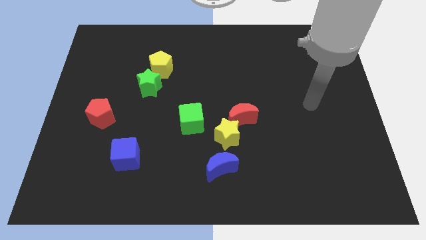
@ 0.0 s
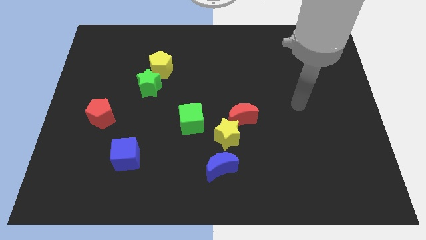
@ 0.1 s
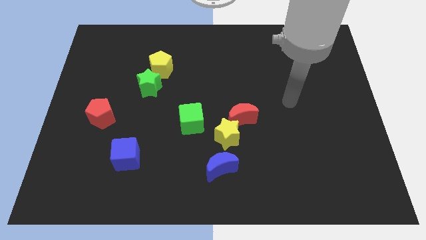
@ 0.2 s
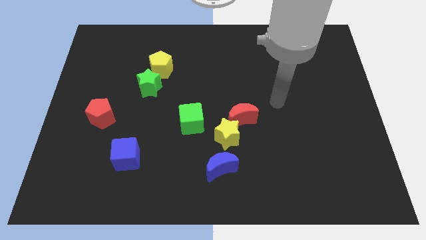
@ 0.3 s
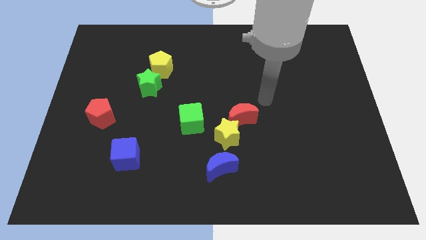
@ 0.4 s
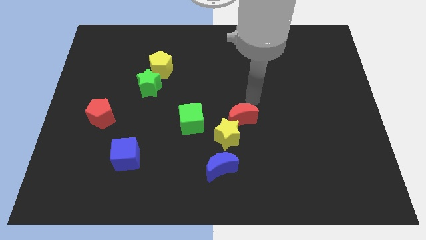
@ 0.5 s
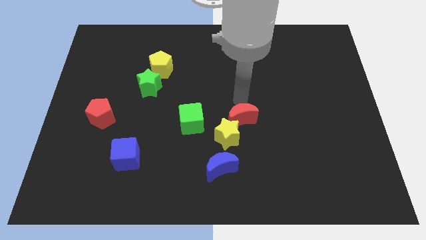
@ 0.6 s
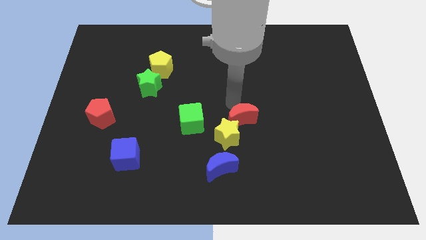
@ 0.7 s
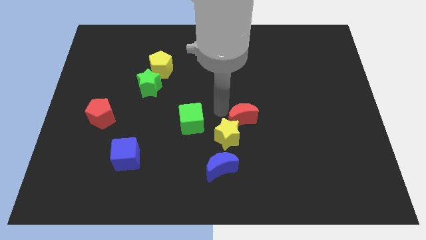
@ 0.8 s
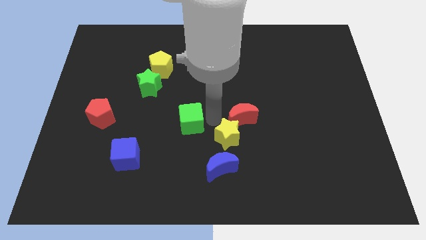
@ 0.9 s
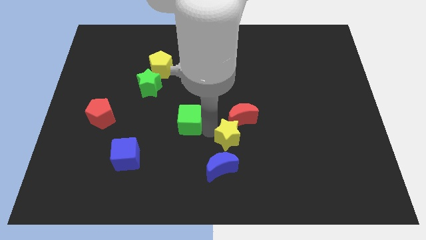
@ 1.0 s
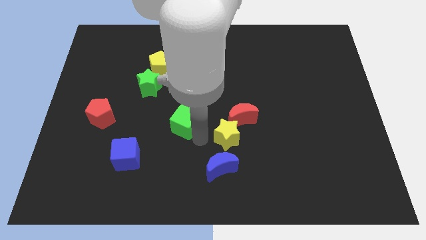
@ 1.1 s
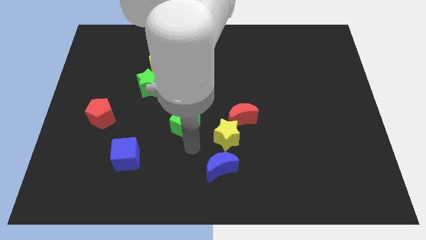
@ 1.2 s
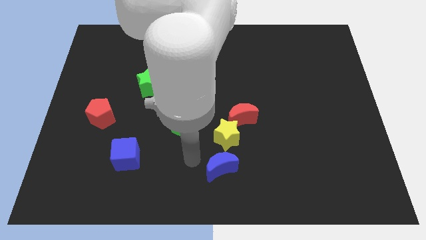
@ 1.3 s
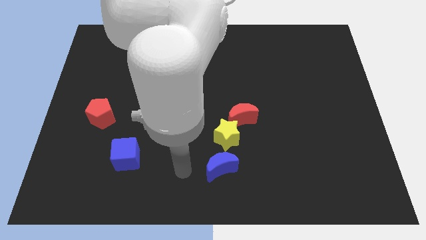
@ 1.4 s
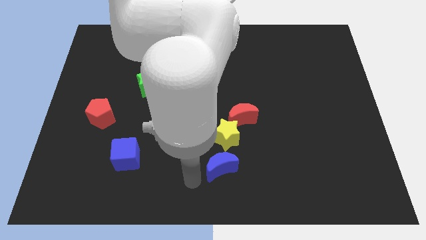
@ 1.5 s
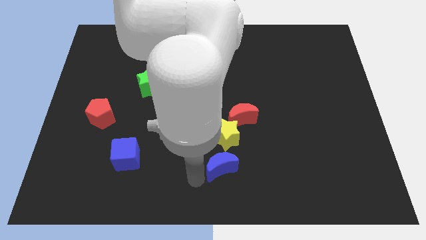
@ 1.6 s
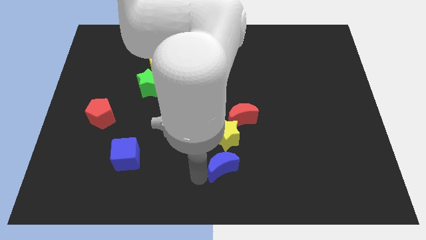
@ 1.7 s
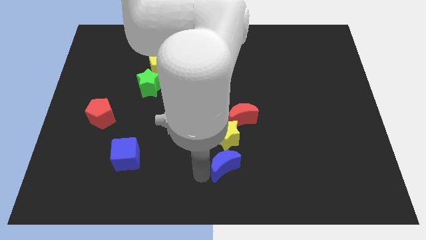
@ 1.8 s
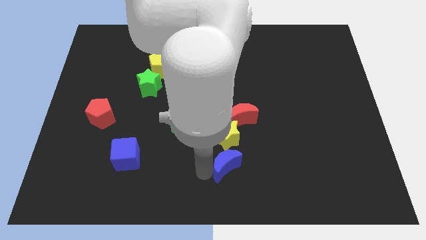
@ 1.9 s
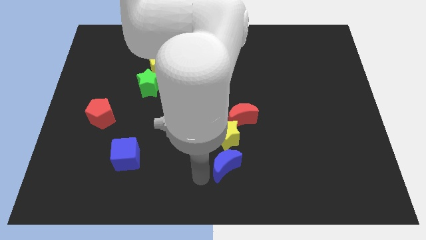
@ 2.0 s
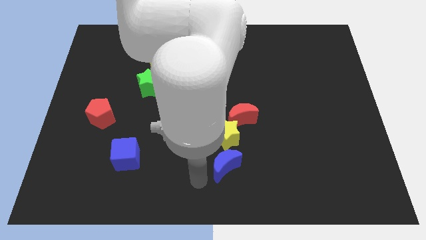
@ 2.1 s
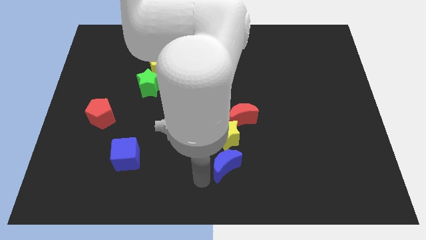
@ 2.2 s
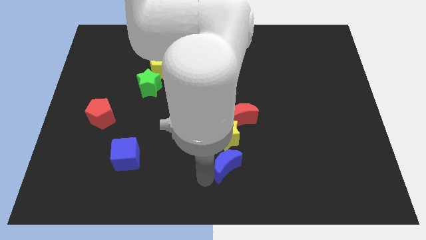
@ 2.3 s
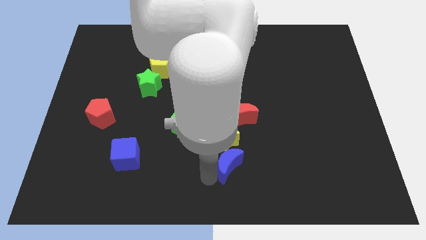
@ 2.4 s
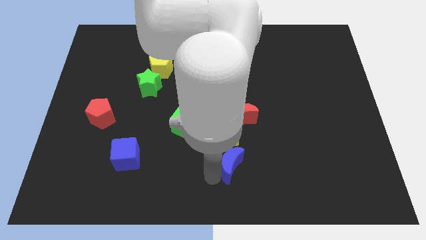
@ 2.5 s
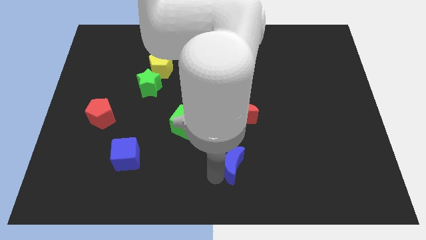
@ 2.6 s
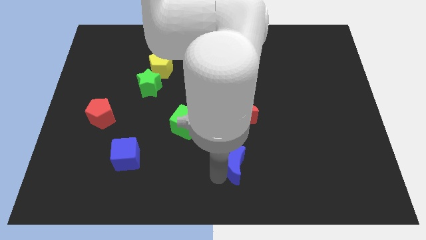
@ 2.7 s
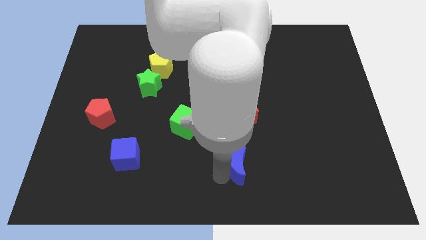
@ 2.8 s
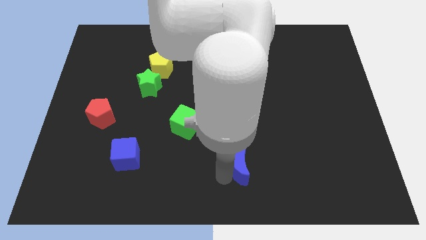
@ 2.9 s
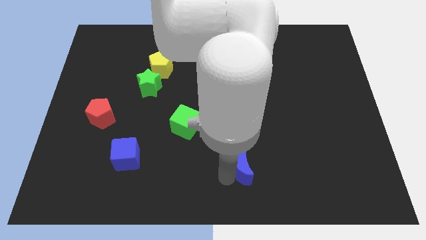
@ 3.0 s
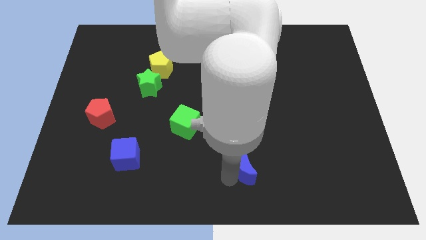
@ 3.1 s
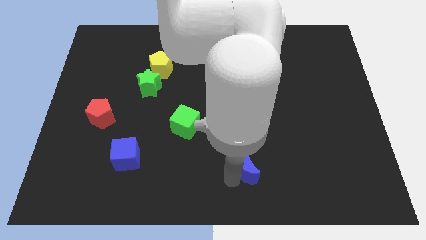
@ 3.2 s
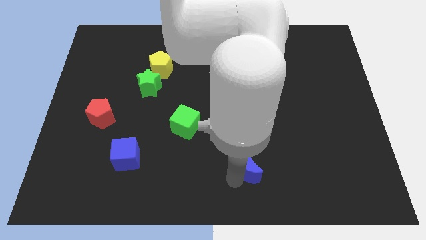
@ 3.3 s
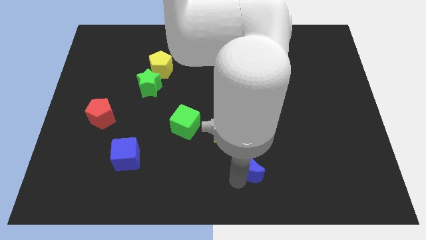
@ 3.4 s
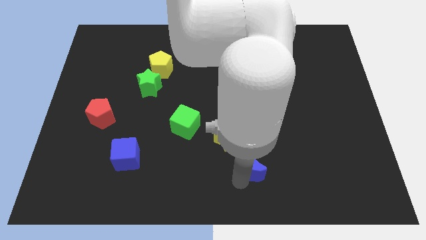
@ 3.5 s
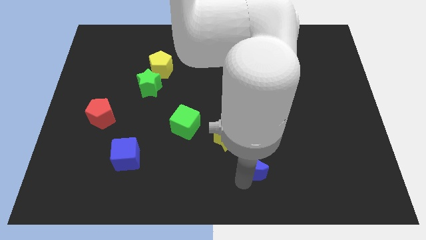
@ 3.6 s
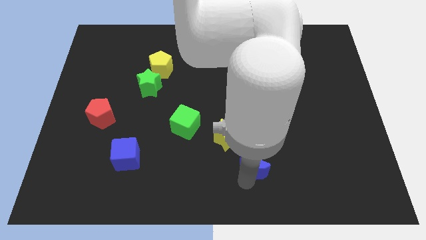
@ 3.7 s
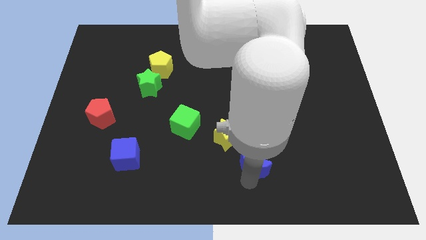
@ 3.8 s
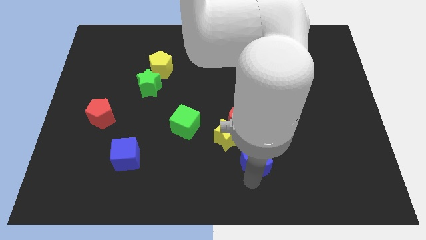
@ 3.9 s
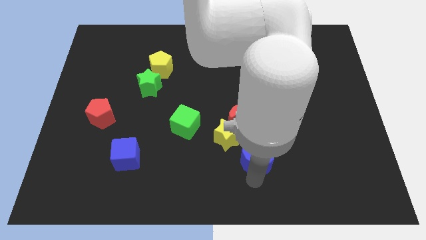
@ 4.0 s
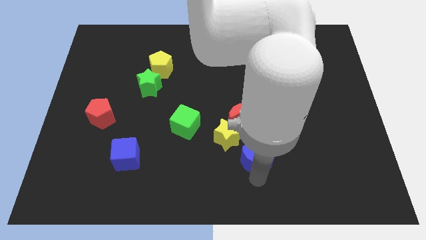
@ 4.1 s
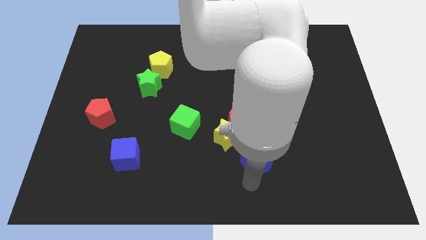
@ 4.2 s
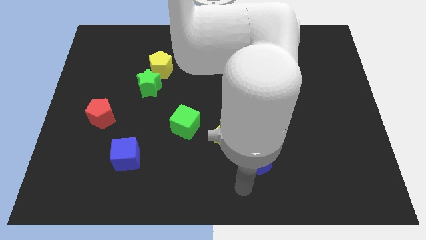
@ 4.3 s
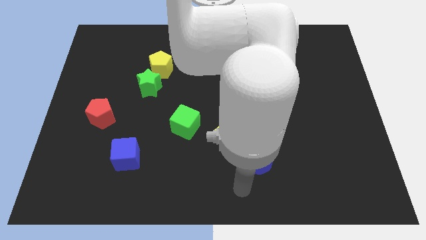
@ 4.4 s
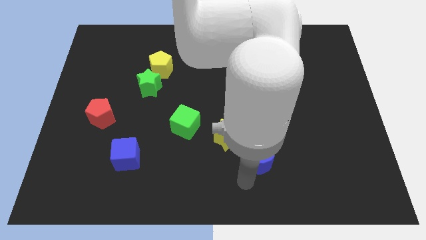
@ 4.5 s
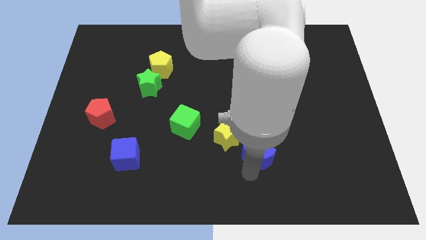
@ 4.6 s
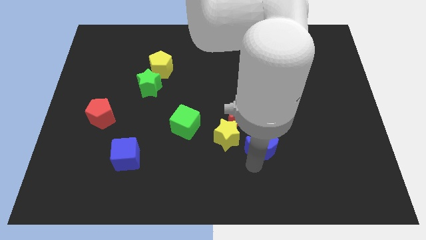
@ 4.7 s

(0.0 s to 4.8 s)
move the blue moon upwards and to the right diagonally a little bit

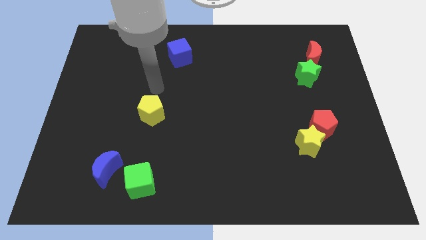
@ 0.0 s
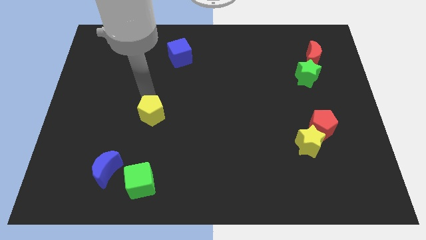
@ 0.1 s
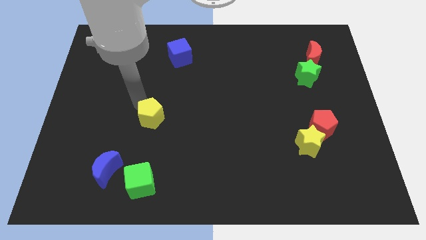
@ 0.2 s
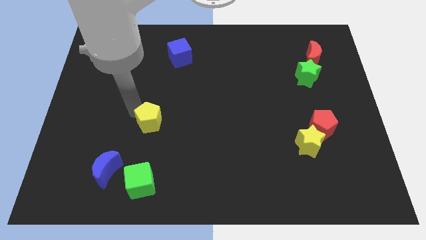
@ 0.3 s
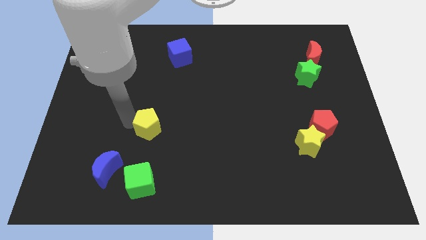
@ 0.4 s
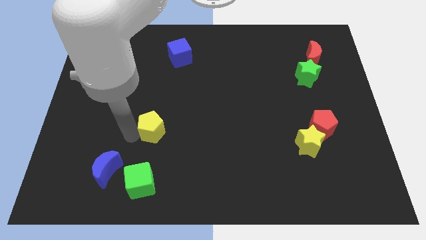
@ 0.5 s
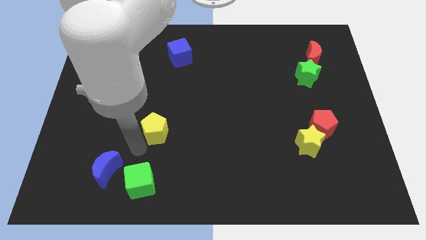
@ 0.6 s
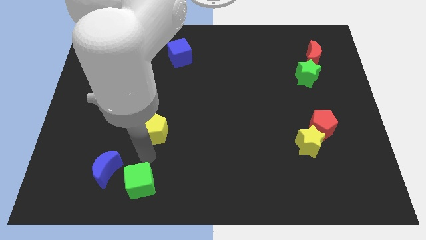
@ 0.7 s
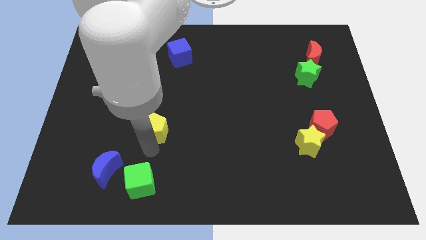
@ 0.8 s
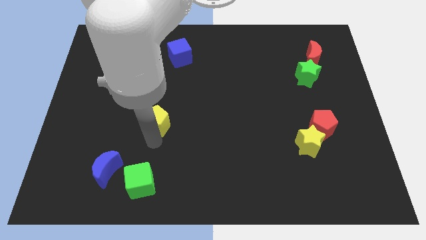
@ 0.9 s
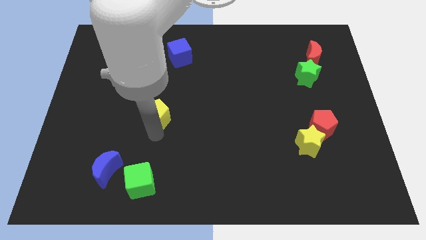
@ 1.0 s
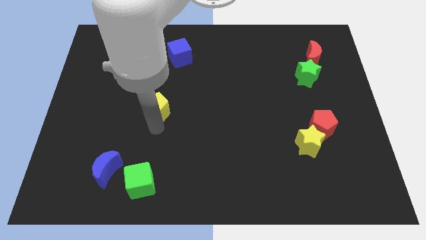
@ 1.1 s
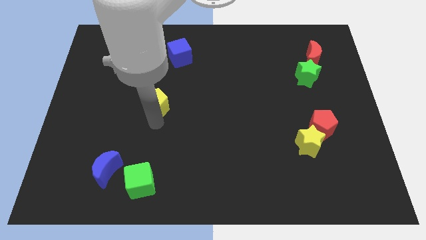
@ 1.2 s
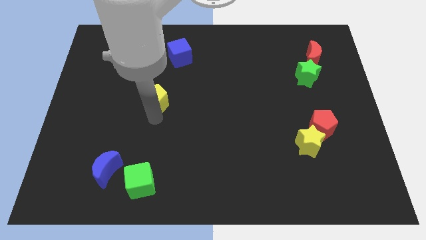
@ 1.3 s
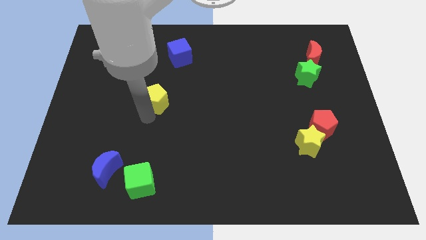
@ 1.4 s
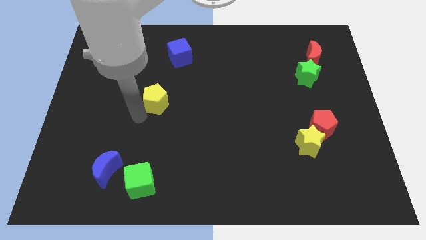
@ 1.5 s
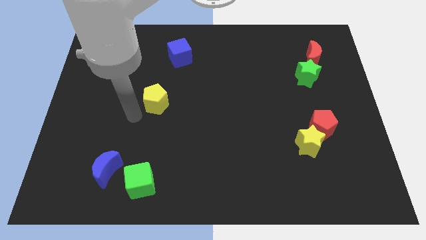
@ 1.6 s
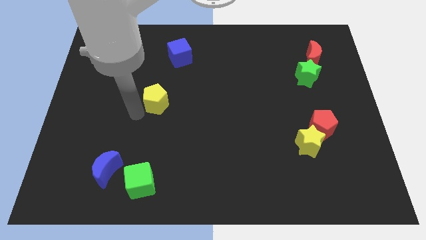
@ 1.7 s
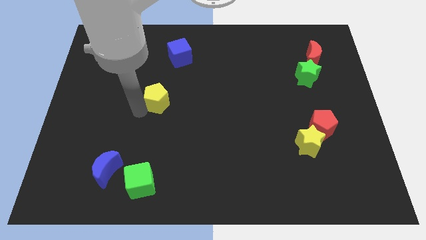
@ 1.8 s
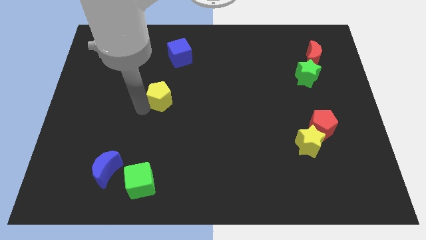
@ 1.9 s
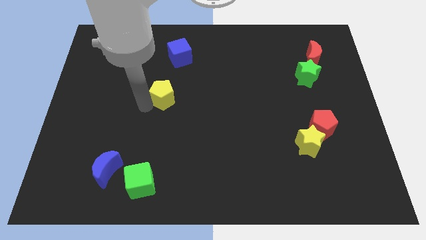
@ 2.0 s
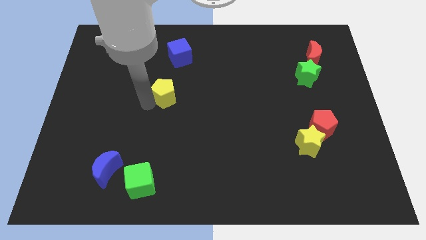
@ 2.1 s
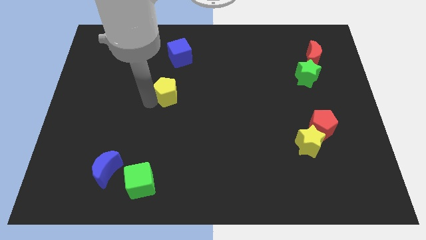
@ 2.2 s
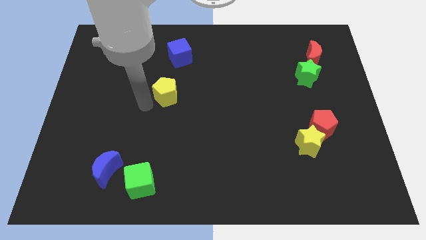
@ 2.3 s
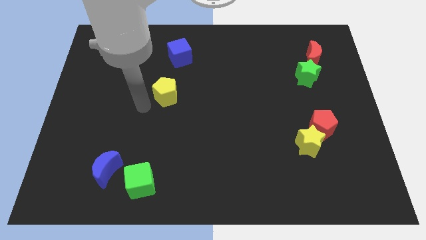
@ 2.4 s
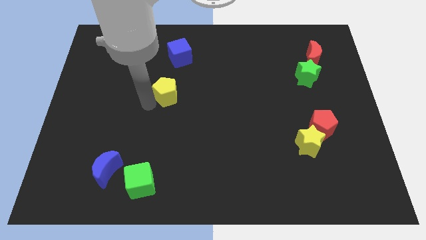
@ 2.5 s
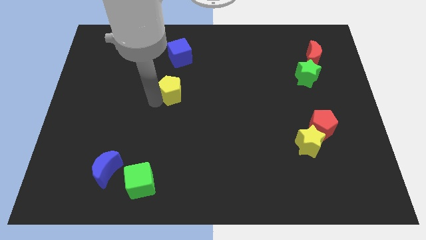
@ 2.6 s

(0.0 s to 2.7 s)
slightly push the yellow pentagon upwards and right

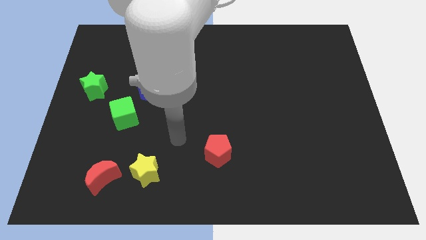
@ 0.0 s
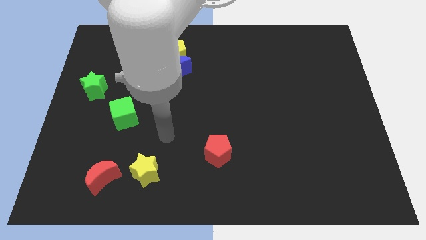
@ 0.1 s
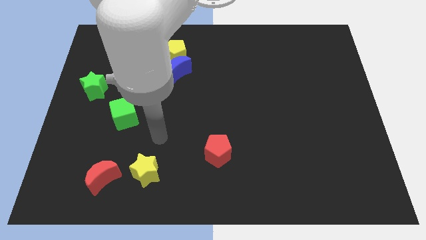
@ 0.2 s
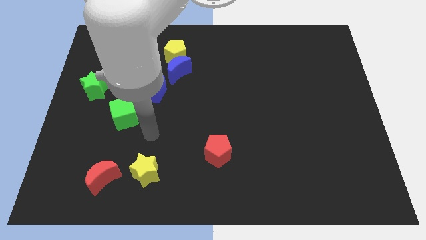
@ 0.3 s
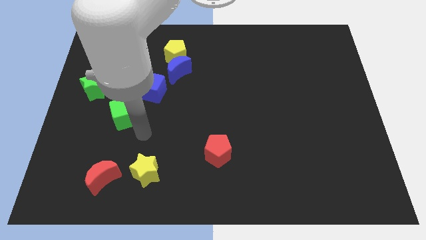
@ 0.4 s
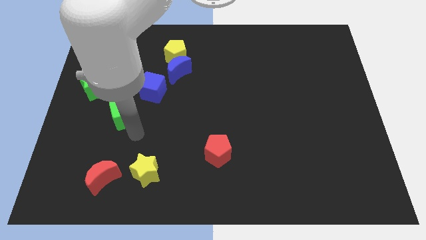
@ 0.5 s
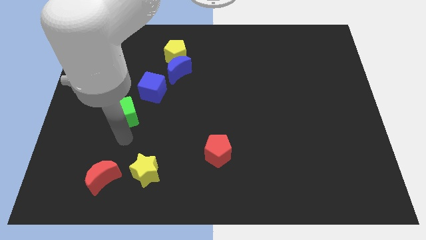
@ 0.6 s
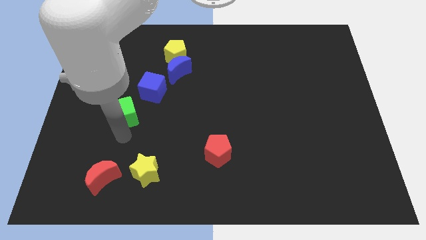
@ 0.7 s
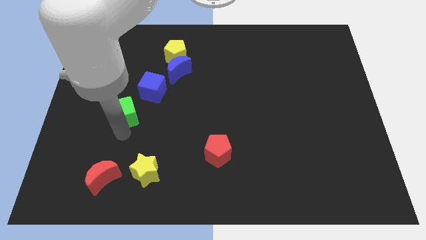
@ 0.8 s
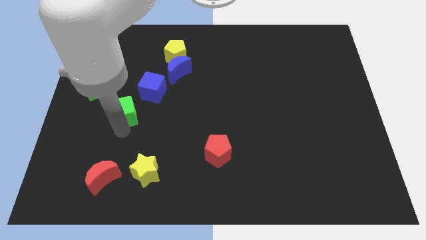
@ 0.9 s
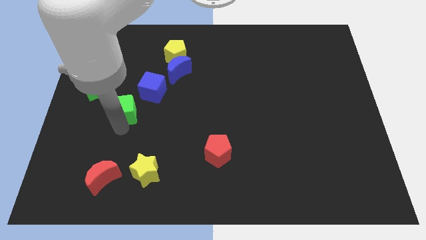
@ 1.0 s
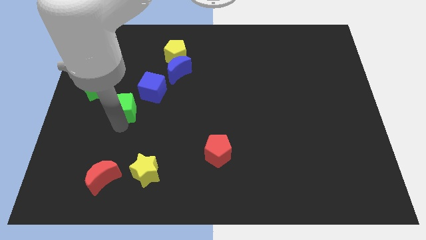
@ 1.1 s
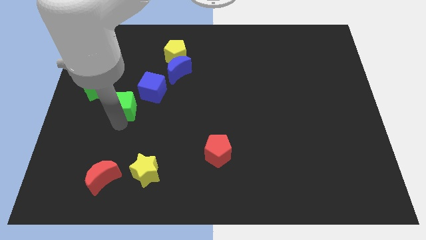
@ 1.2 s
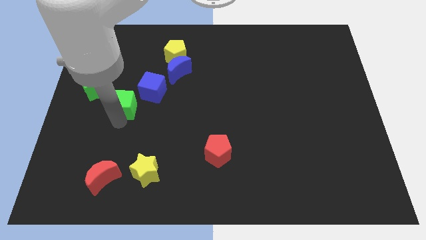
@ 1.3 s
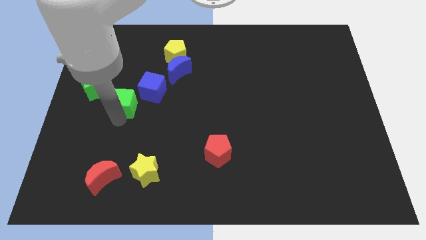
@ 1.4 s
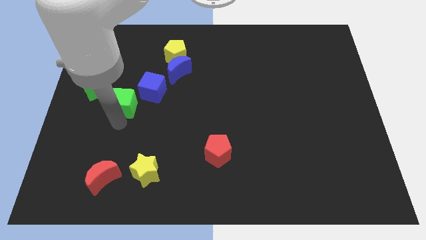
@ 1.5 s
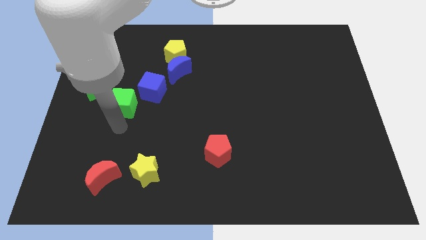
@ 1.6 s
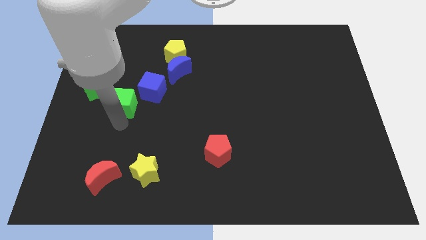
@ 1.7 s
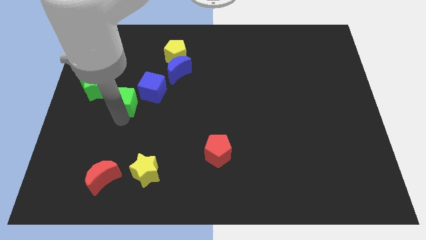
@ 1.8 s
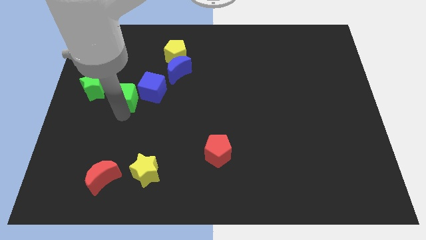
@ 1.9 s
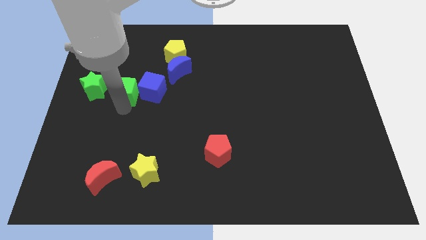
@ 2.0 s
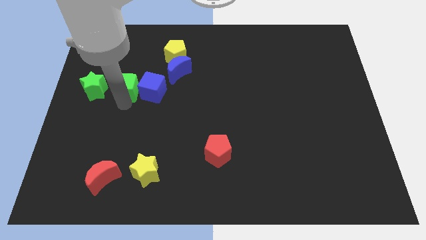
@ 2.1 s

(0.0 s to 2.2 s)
slightly slide the green cube up
